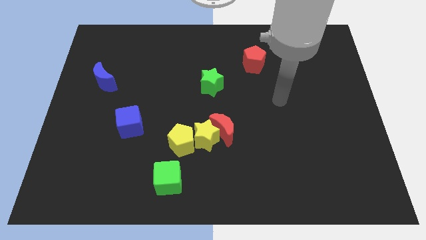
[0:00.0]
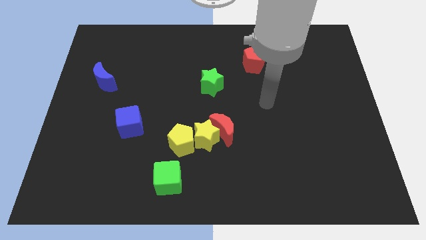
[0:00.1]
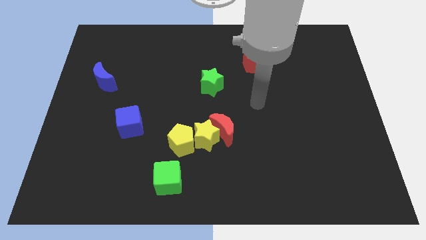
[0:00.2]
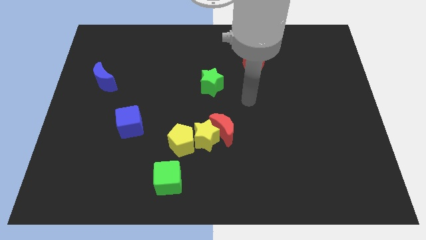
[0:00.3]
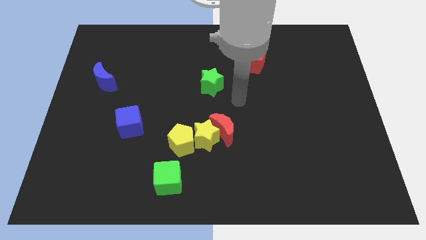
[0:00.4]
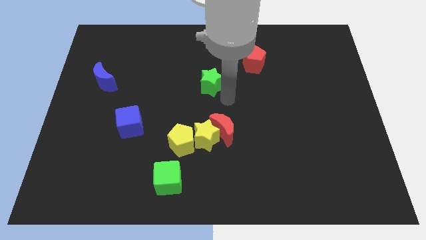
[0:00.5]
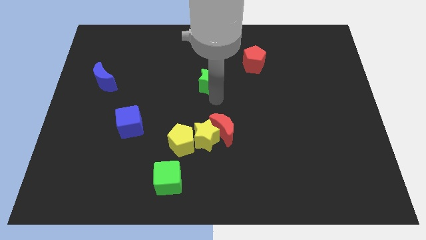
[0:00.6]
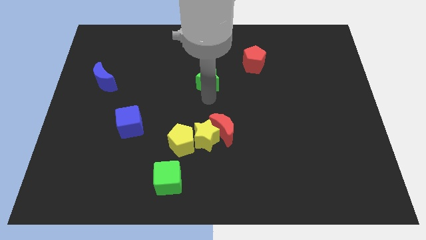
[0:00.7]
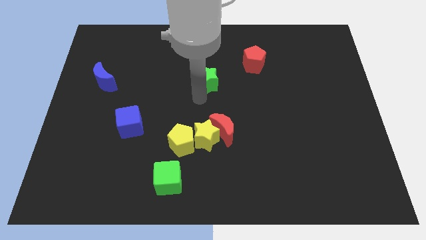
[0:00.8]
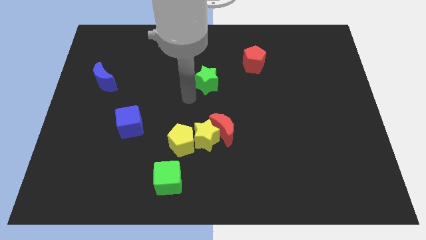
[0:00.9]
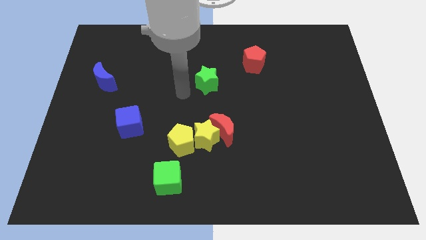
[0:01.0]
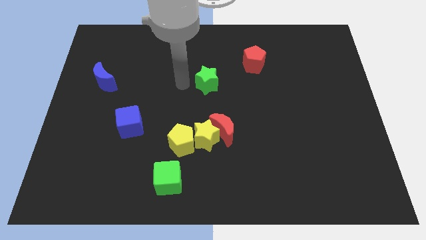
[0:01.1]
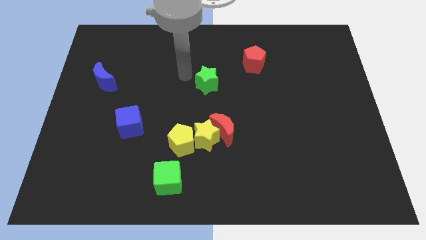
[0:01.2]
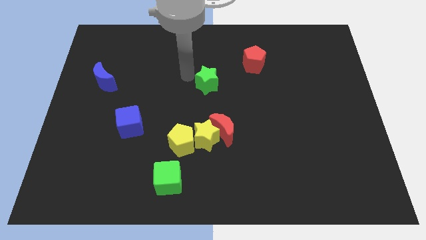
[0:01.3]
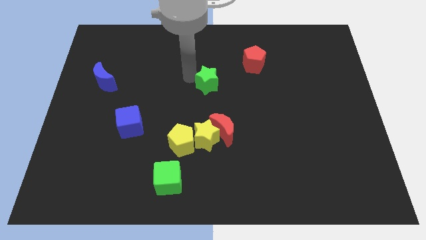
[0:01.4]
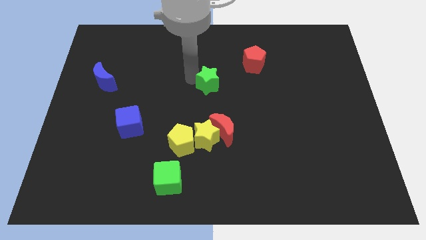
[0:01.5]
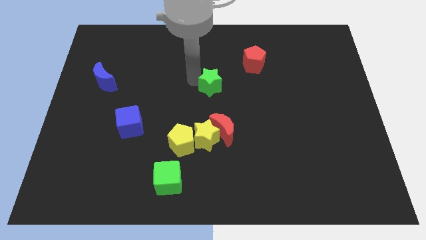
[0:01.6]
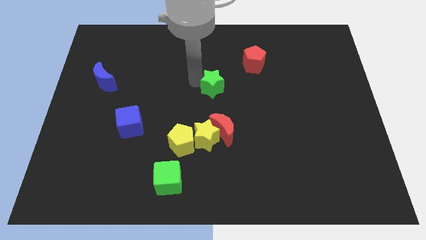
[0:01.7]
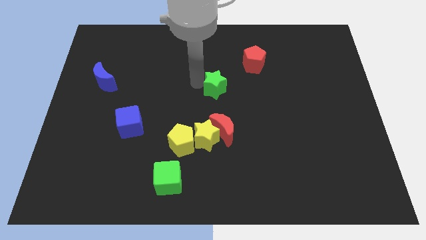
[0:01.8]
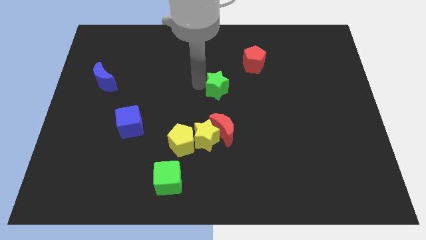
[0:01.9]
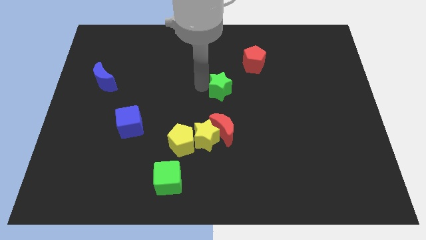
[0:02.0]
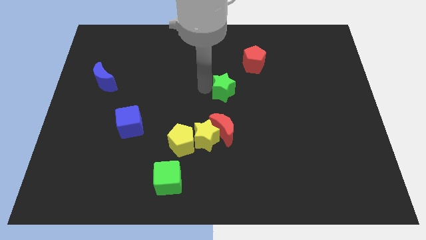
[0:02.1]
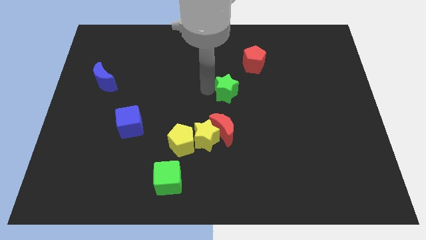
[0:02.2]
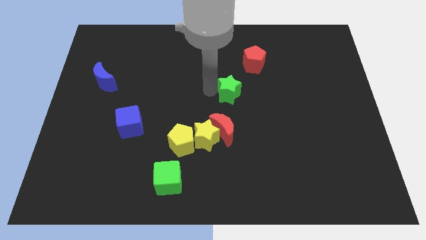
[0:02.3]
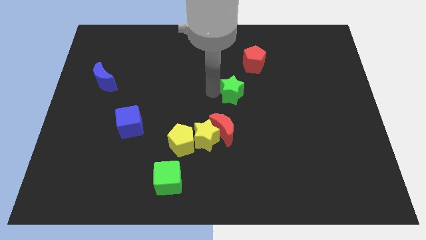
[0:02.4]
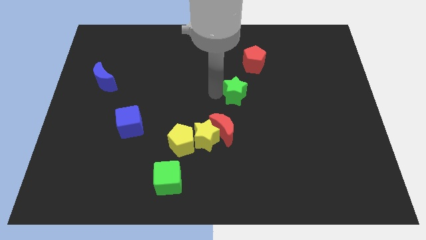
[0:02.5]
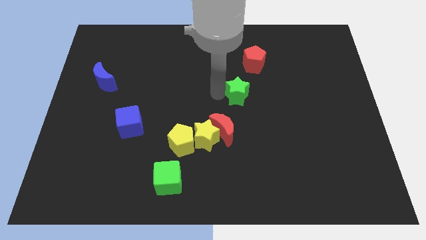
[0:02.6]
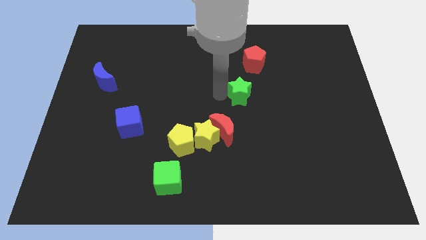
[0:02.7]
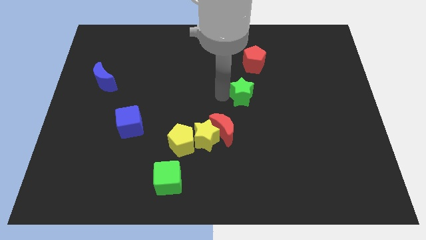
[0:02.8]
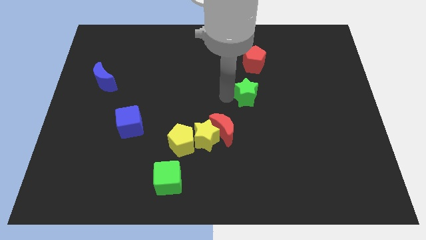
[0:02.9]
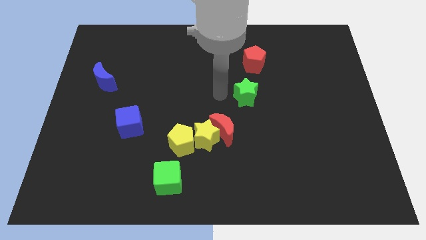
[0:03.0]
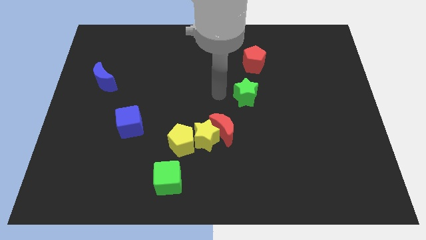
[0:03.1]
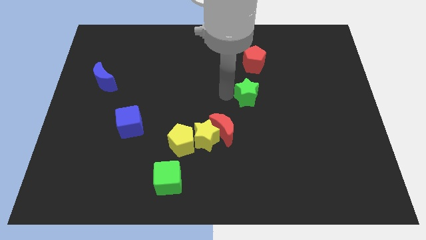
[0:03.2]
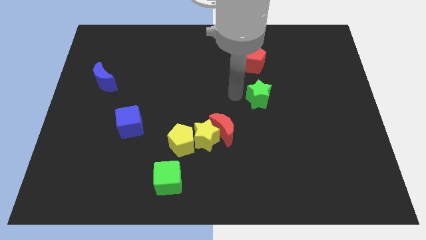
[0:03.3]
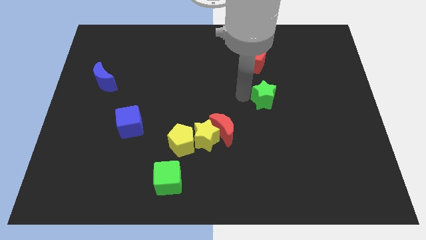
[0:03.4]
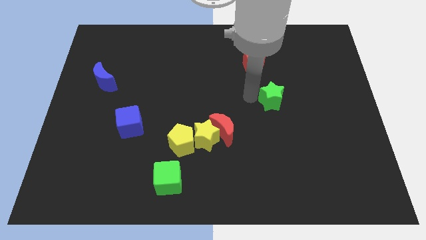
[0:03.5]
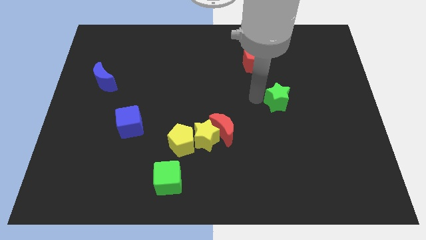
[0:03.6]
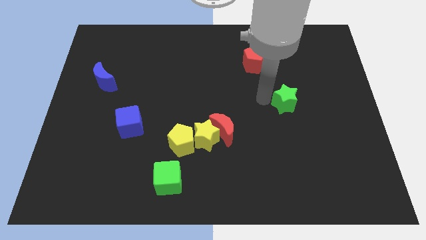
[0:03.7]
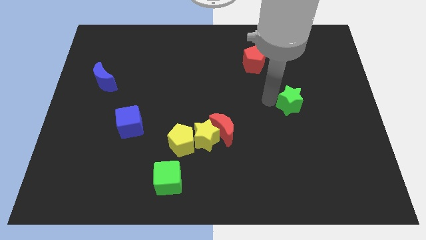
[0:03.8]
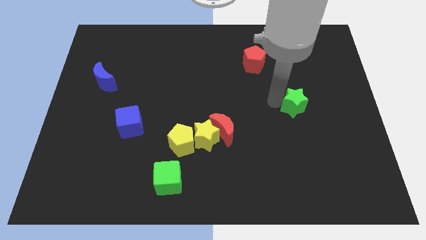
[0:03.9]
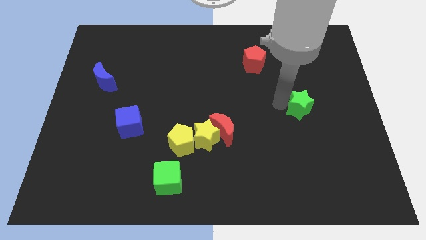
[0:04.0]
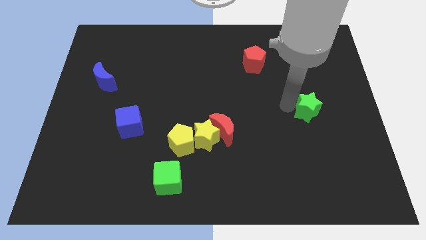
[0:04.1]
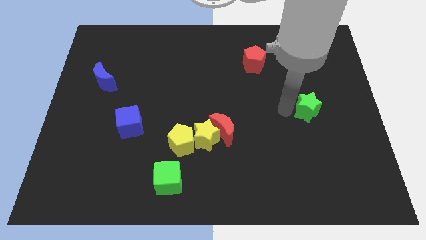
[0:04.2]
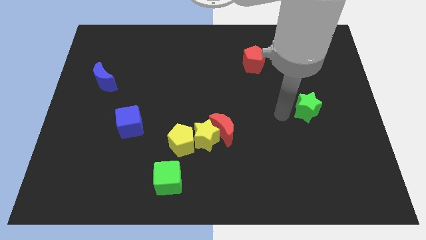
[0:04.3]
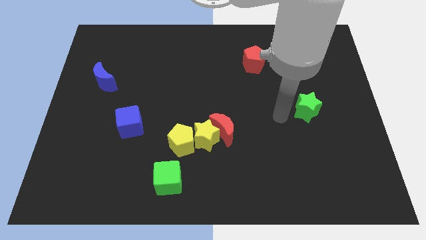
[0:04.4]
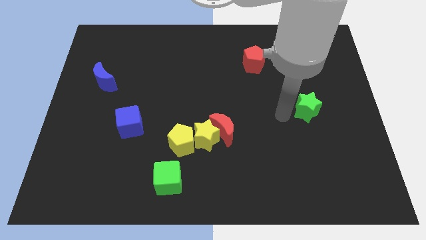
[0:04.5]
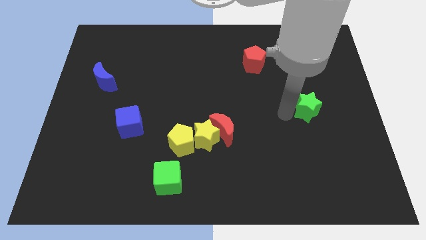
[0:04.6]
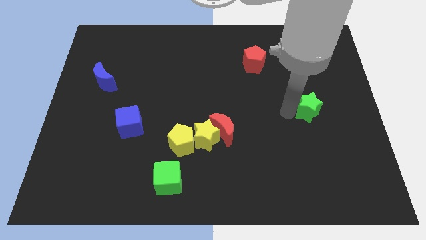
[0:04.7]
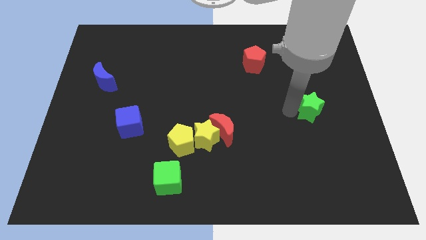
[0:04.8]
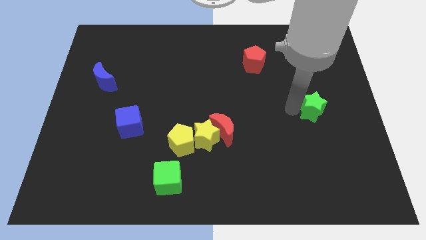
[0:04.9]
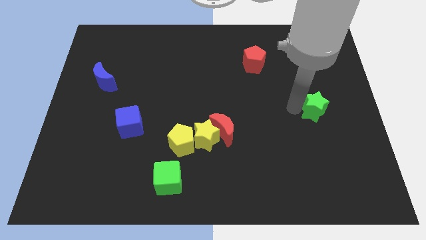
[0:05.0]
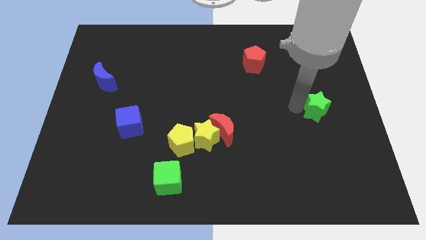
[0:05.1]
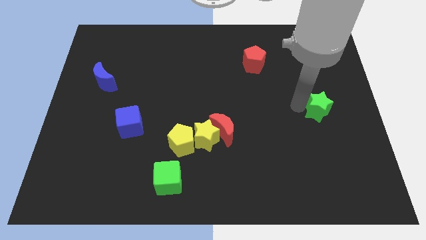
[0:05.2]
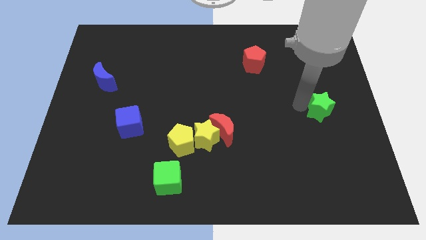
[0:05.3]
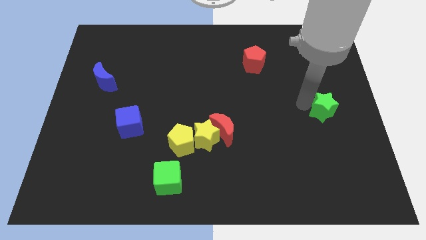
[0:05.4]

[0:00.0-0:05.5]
slide the green star to the right side

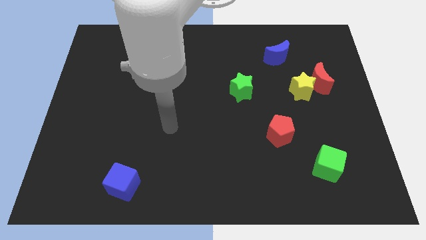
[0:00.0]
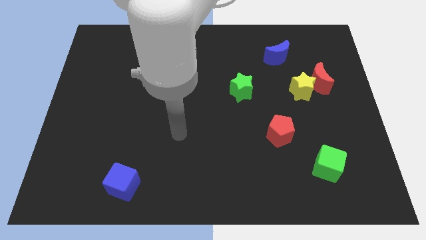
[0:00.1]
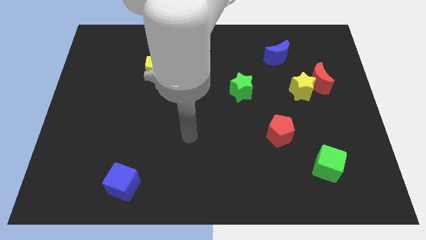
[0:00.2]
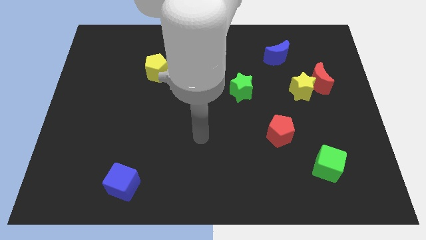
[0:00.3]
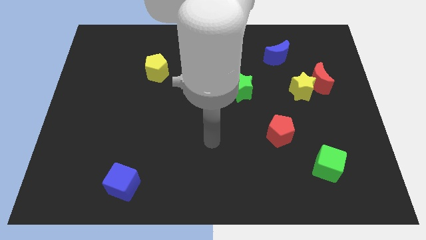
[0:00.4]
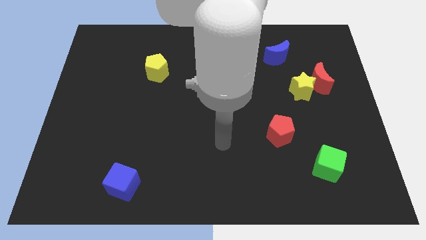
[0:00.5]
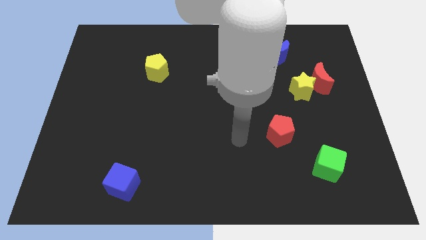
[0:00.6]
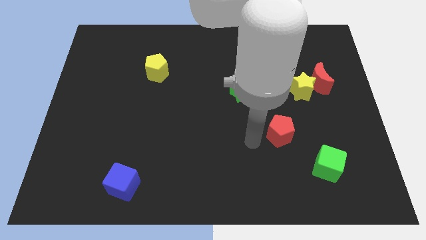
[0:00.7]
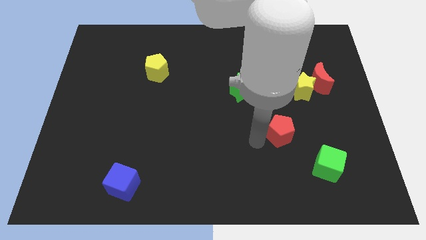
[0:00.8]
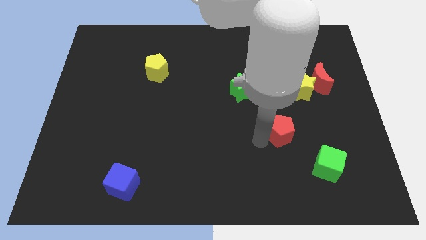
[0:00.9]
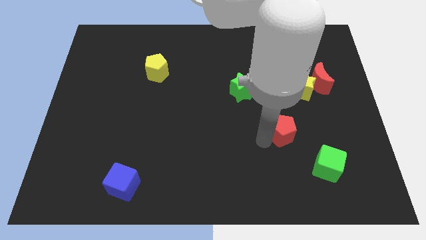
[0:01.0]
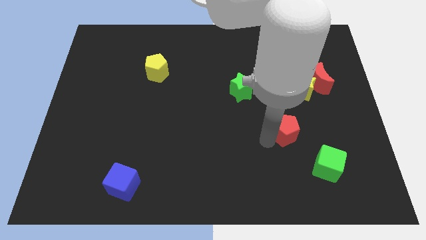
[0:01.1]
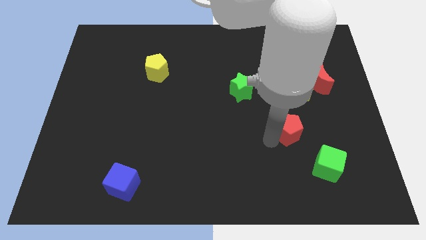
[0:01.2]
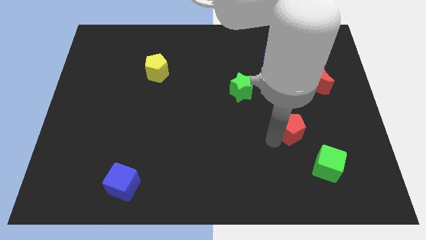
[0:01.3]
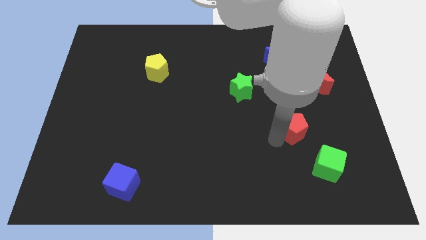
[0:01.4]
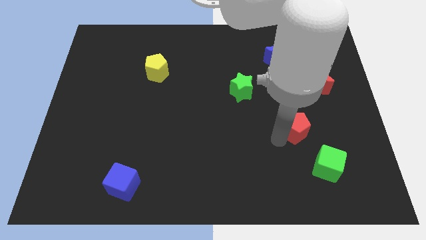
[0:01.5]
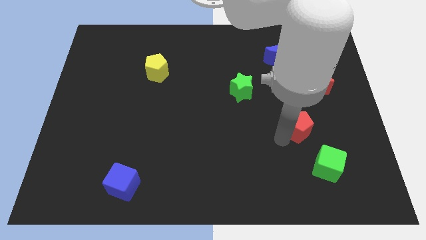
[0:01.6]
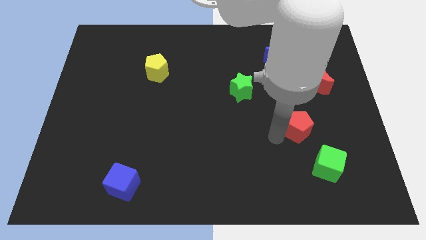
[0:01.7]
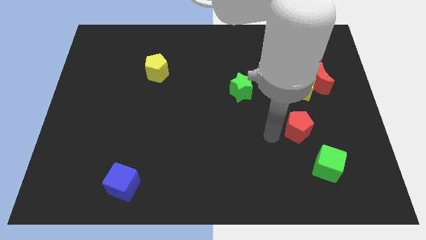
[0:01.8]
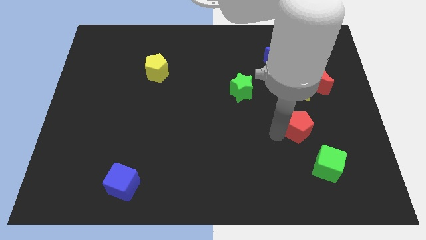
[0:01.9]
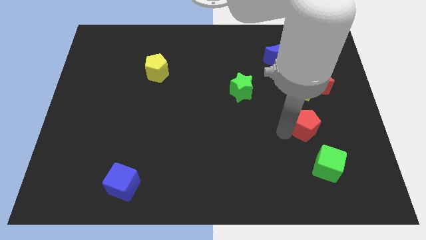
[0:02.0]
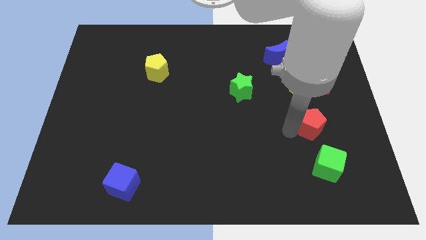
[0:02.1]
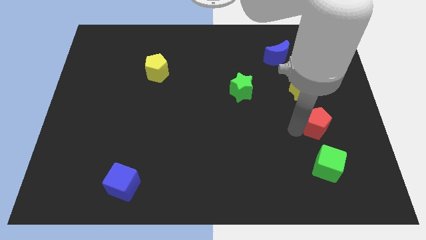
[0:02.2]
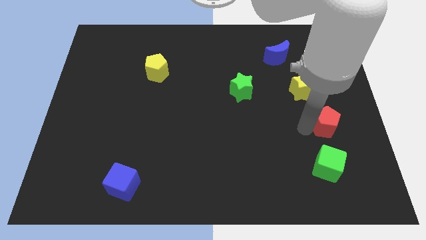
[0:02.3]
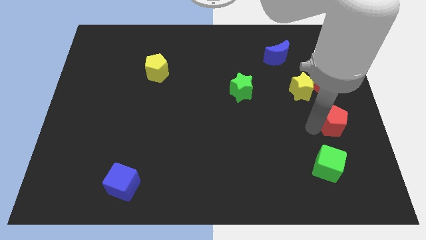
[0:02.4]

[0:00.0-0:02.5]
move the red pentagon to the right side
